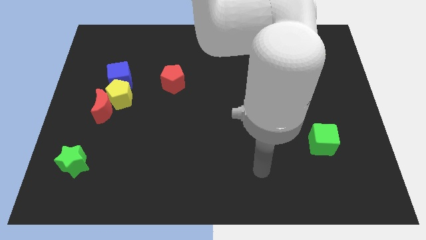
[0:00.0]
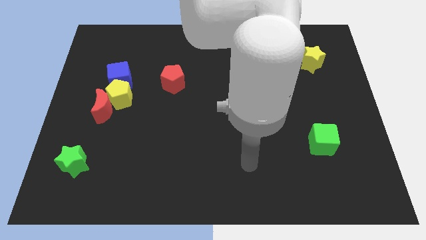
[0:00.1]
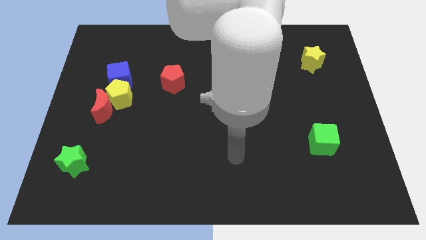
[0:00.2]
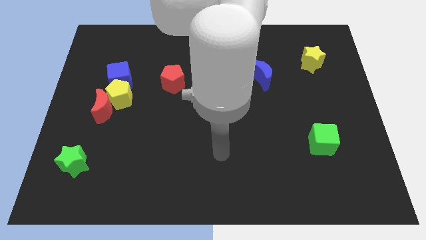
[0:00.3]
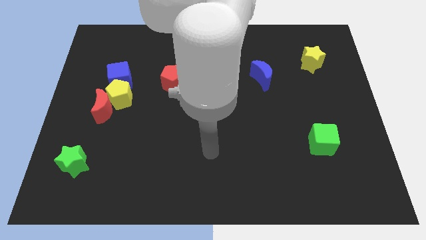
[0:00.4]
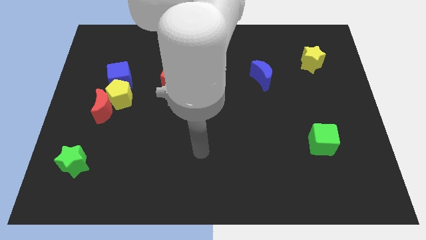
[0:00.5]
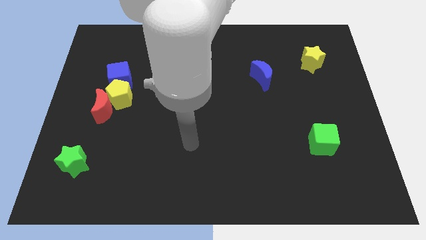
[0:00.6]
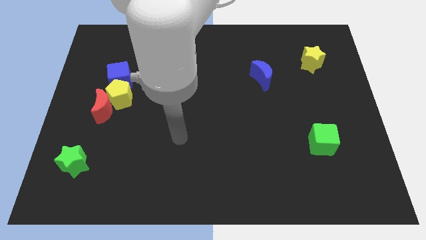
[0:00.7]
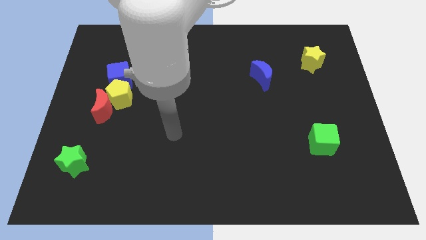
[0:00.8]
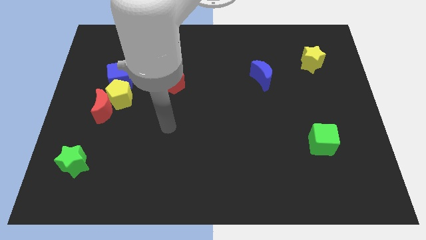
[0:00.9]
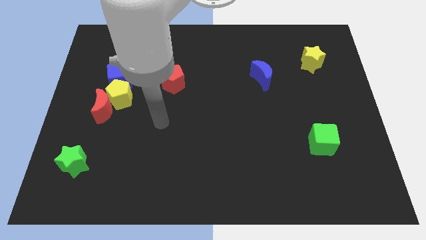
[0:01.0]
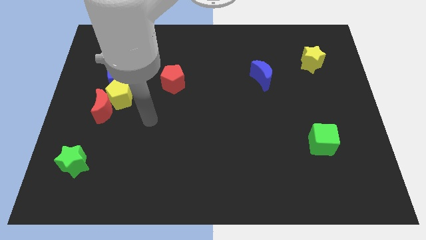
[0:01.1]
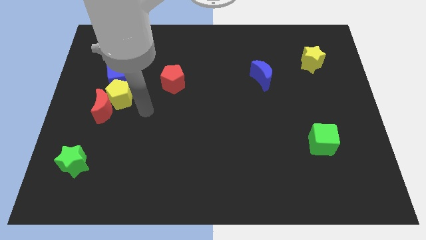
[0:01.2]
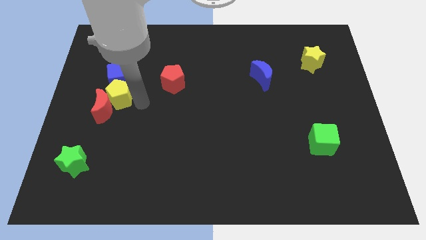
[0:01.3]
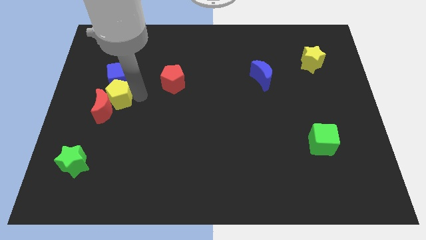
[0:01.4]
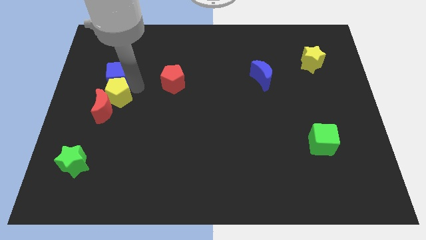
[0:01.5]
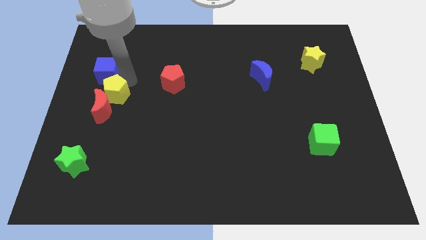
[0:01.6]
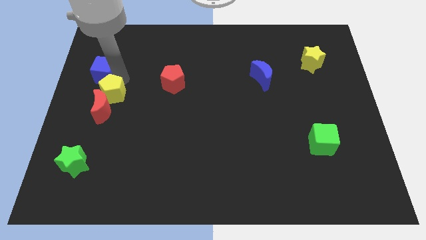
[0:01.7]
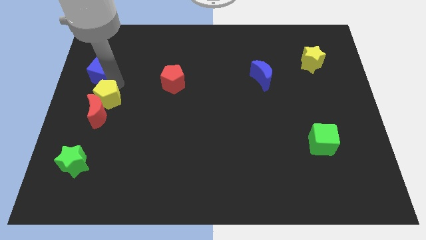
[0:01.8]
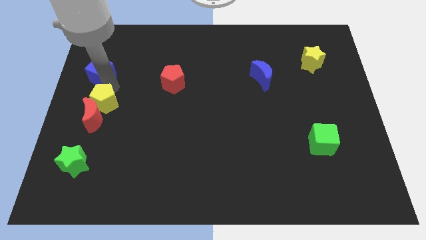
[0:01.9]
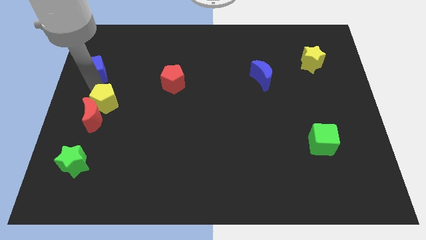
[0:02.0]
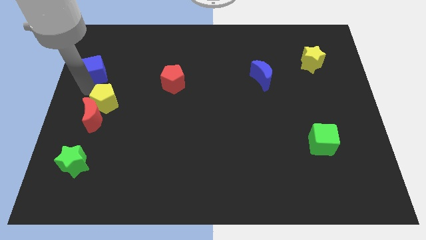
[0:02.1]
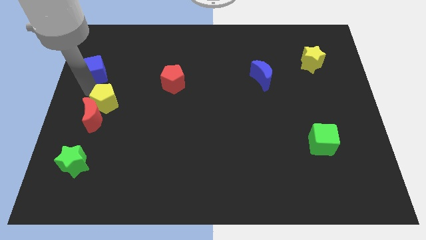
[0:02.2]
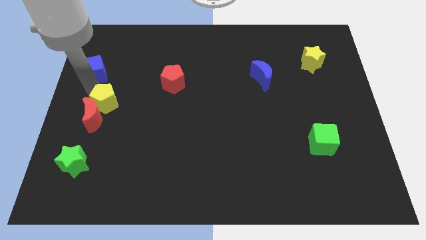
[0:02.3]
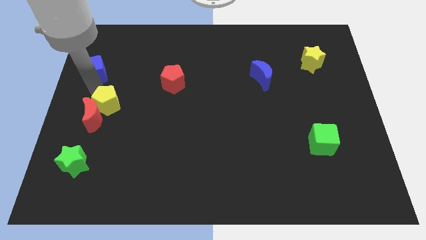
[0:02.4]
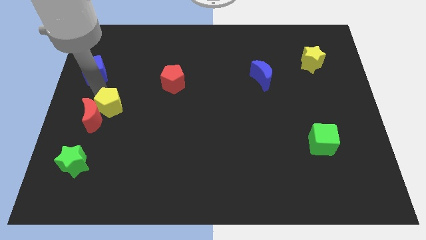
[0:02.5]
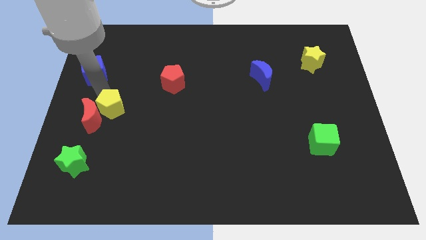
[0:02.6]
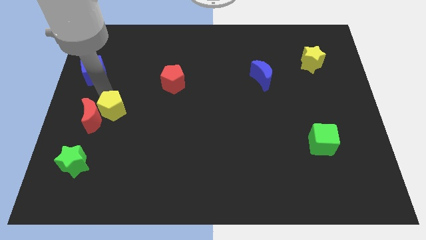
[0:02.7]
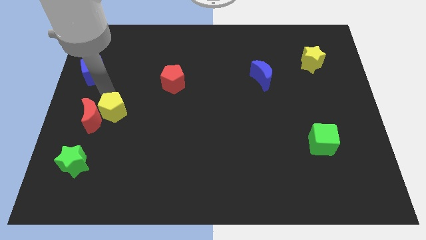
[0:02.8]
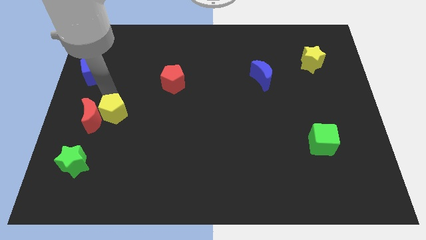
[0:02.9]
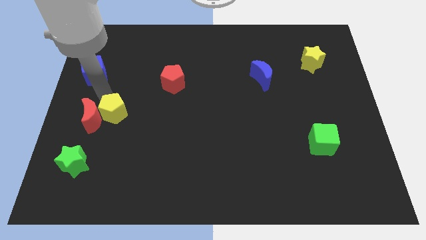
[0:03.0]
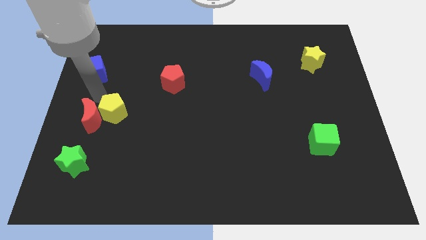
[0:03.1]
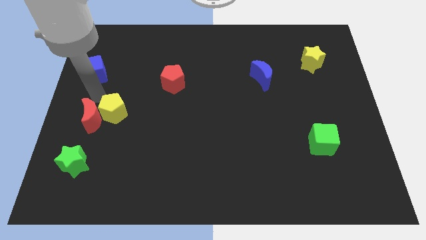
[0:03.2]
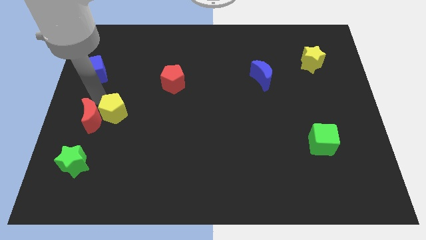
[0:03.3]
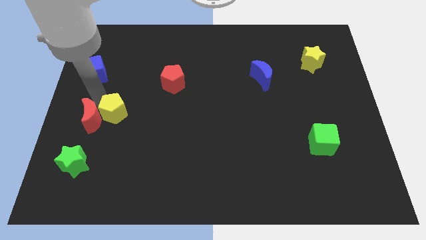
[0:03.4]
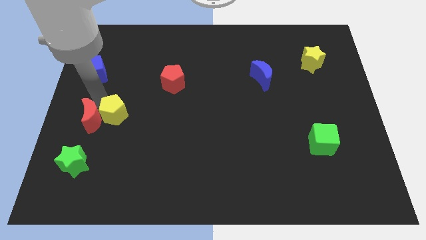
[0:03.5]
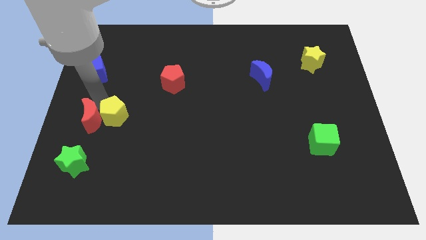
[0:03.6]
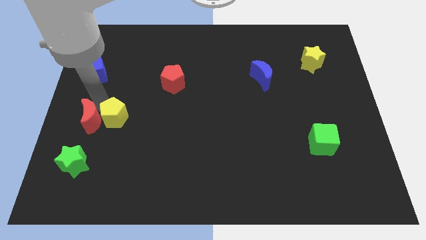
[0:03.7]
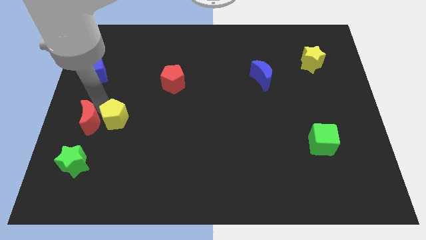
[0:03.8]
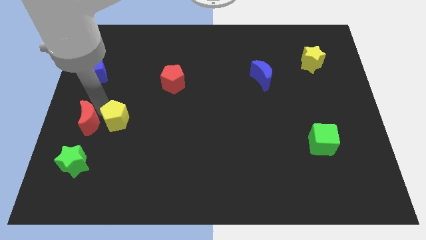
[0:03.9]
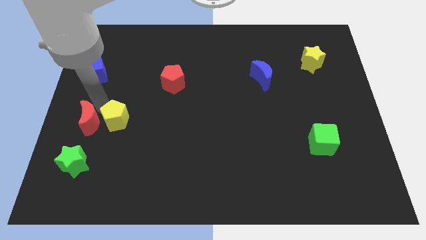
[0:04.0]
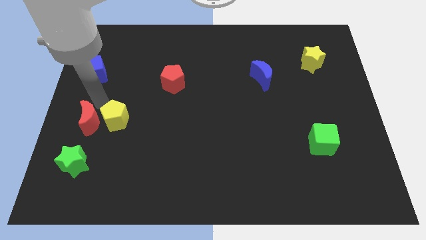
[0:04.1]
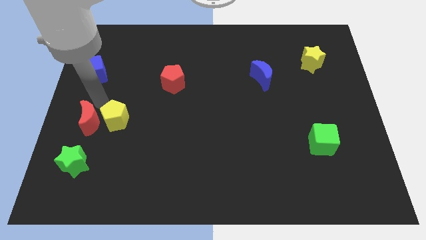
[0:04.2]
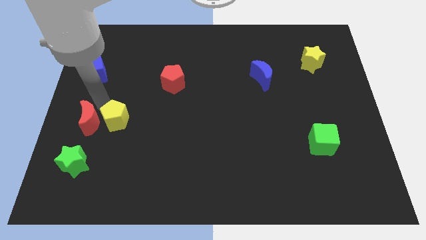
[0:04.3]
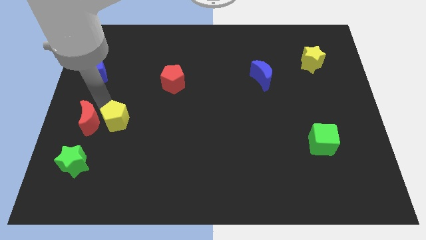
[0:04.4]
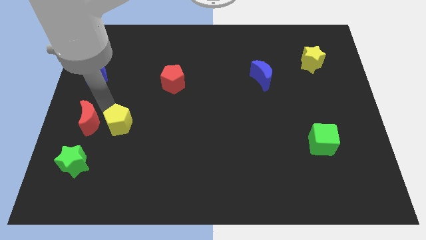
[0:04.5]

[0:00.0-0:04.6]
pull the yellow pentagon apart from the red moon and blue cube

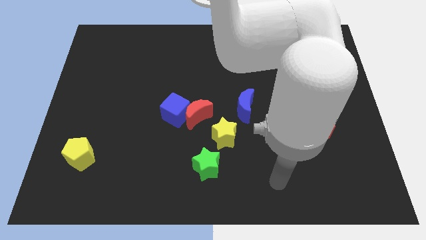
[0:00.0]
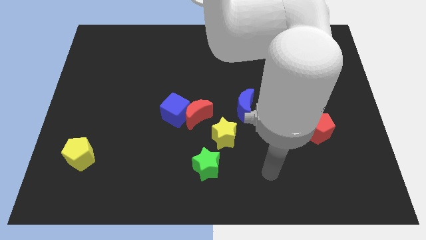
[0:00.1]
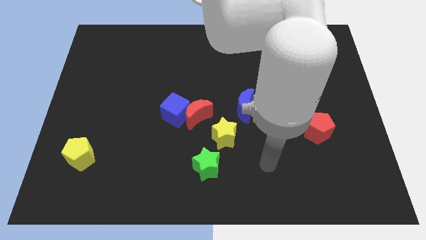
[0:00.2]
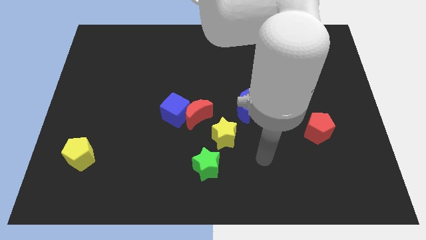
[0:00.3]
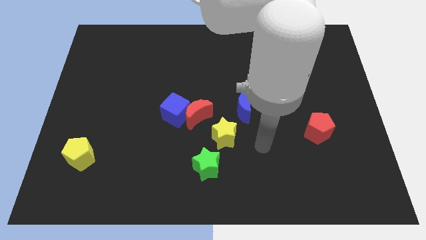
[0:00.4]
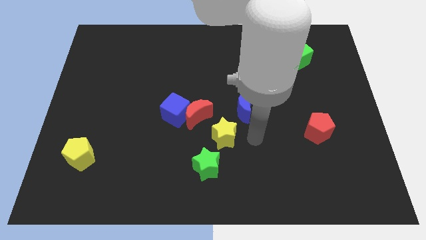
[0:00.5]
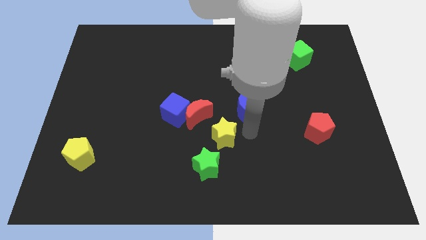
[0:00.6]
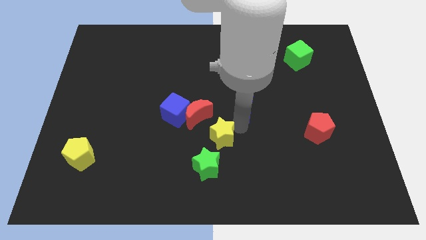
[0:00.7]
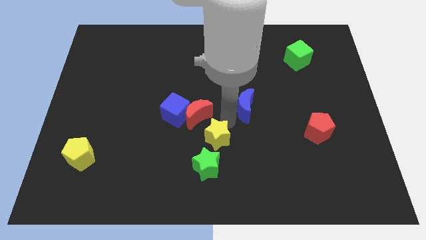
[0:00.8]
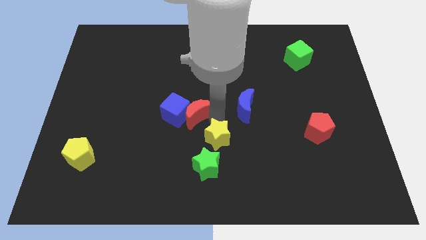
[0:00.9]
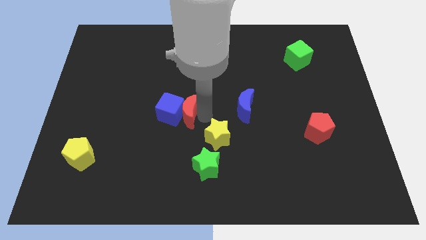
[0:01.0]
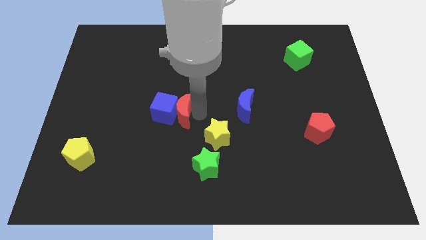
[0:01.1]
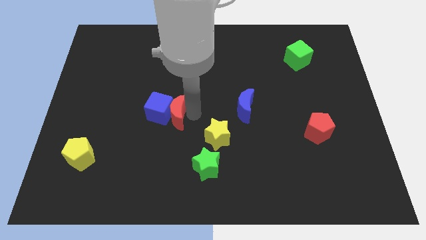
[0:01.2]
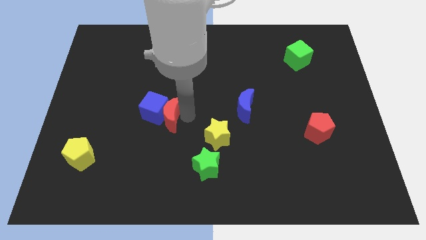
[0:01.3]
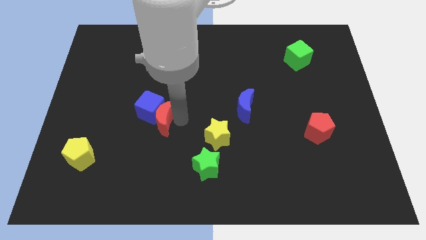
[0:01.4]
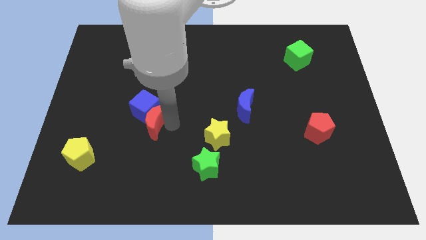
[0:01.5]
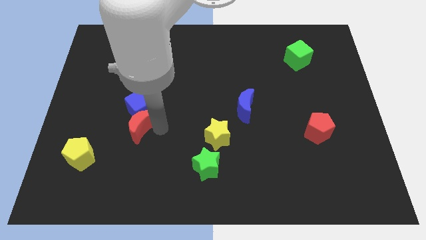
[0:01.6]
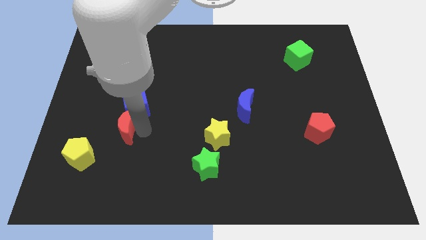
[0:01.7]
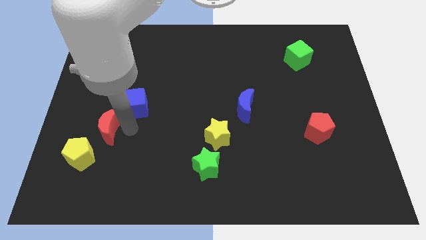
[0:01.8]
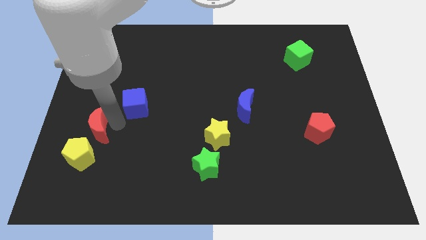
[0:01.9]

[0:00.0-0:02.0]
separate the blue cube from the red moon

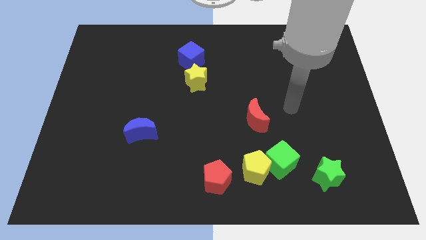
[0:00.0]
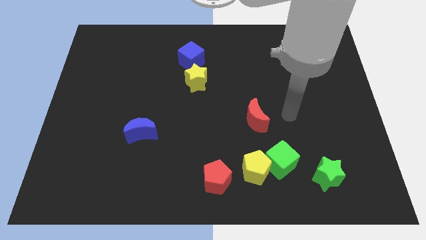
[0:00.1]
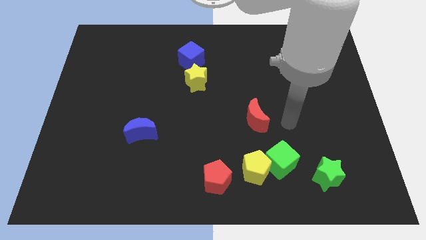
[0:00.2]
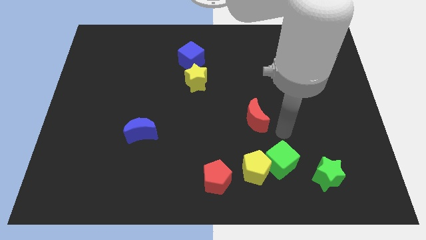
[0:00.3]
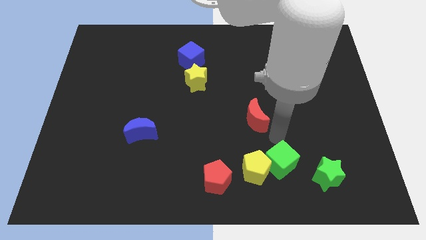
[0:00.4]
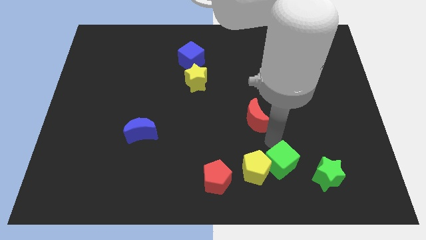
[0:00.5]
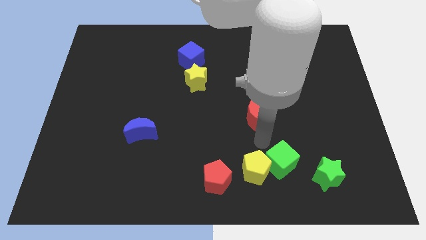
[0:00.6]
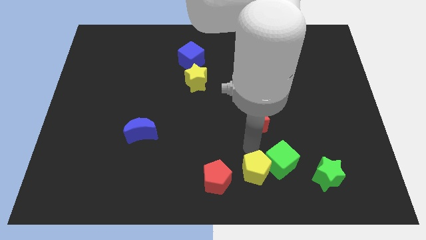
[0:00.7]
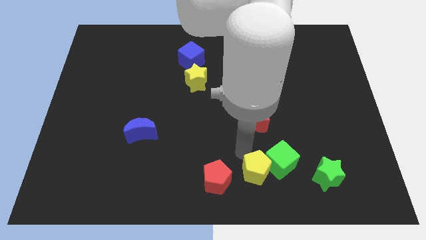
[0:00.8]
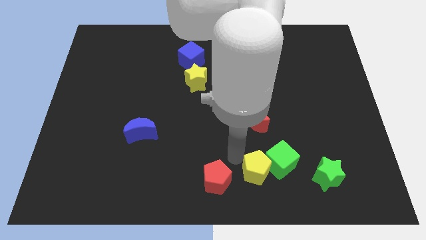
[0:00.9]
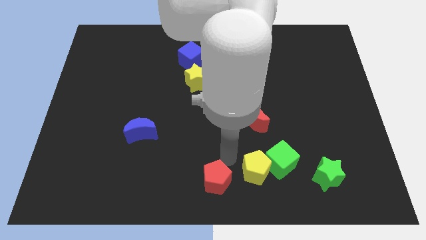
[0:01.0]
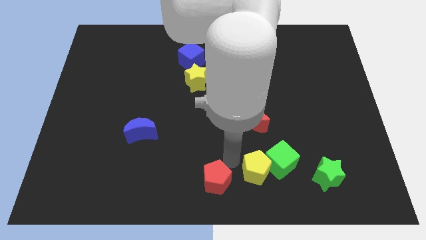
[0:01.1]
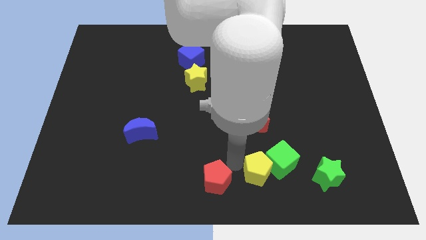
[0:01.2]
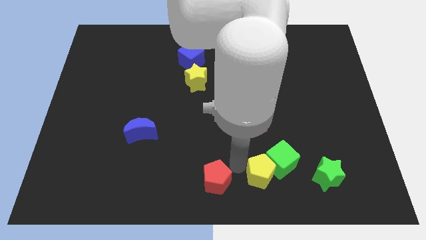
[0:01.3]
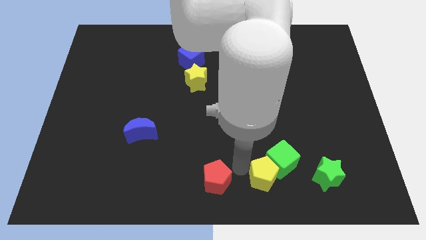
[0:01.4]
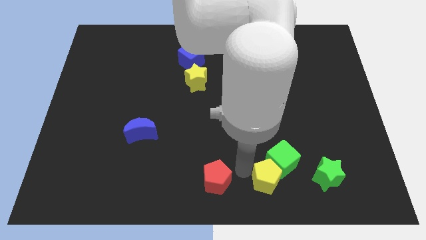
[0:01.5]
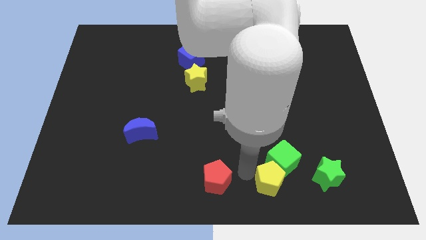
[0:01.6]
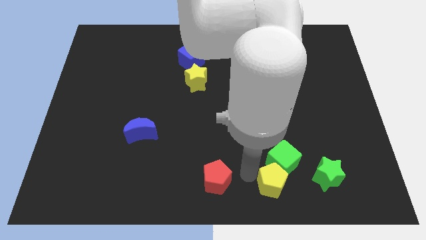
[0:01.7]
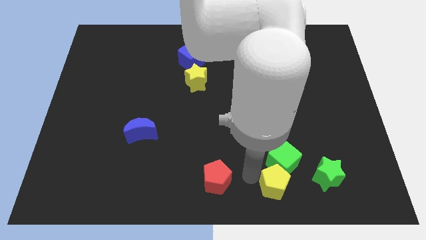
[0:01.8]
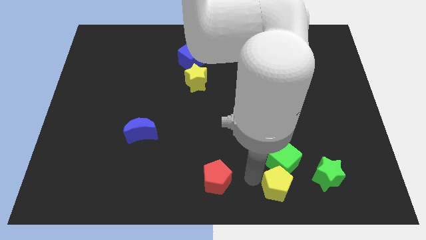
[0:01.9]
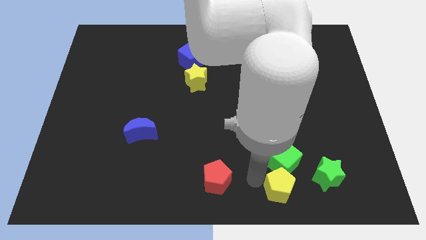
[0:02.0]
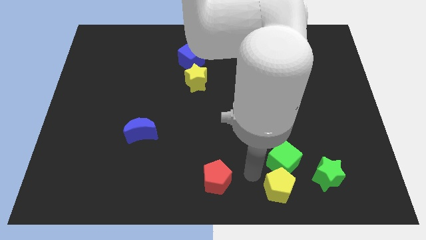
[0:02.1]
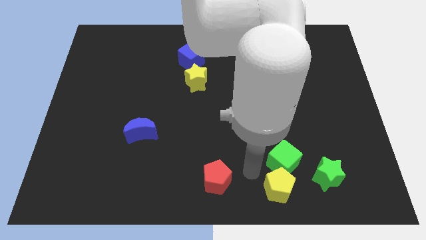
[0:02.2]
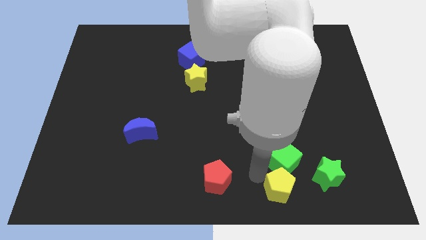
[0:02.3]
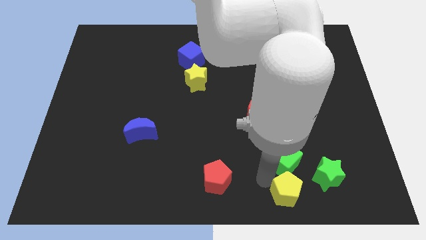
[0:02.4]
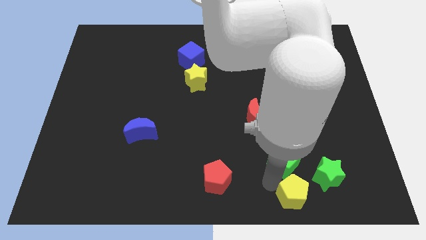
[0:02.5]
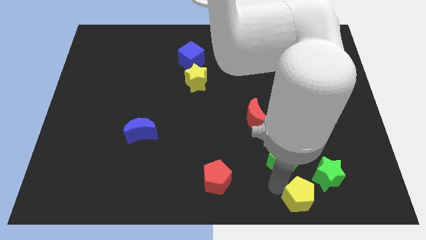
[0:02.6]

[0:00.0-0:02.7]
pull the yellow pentagon apart from the green cube and red pentagon
